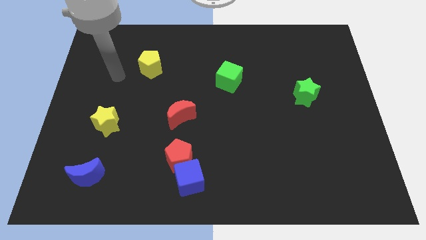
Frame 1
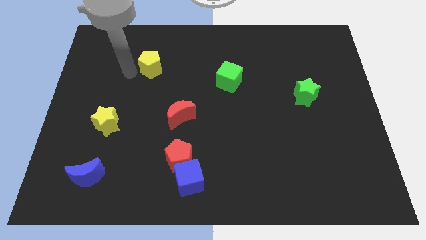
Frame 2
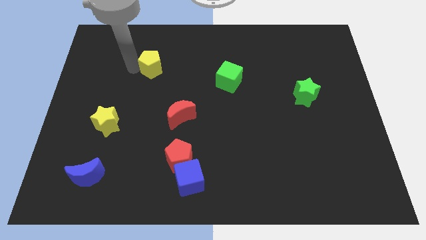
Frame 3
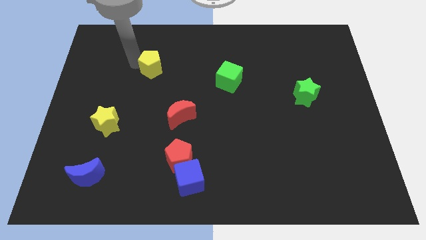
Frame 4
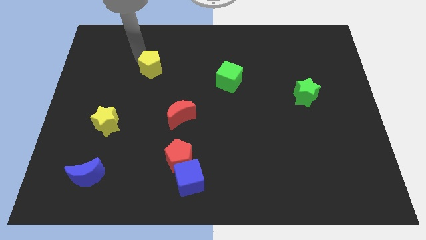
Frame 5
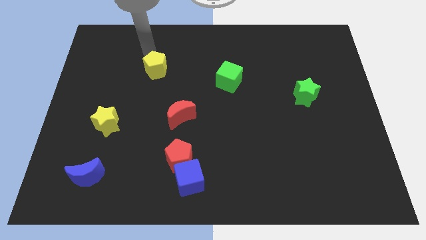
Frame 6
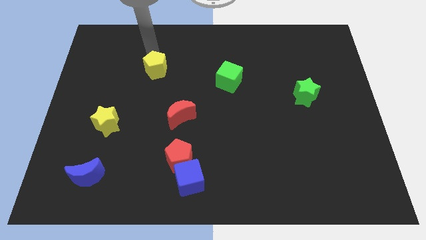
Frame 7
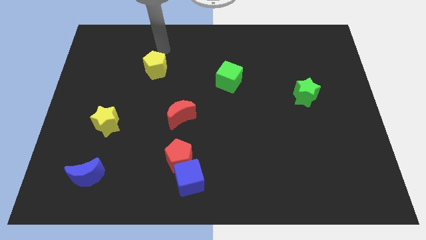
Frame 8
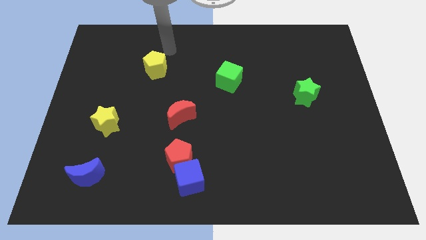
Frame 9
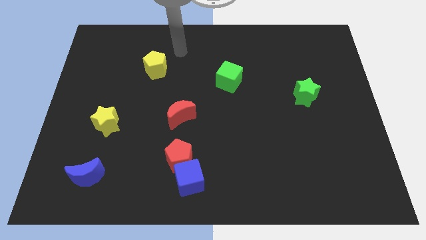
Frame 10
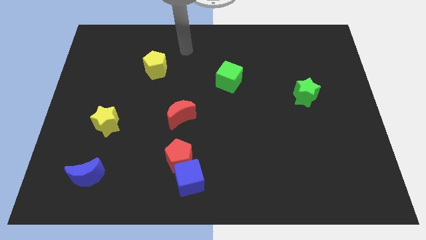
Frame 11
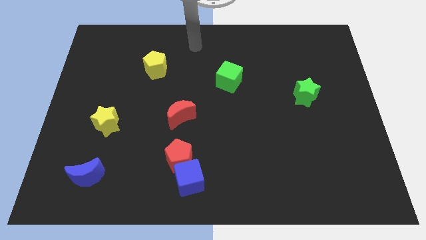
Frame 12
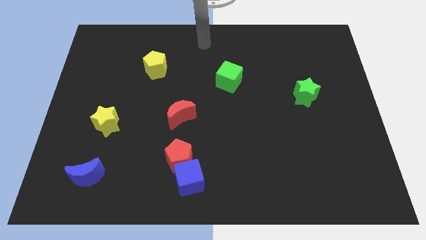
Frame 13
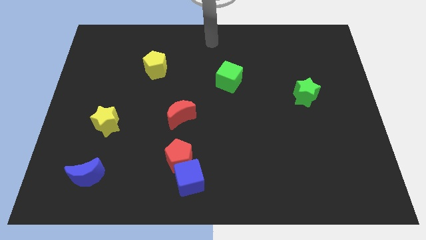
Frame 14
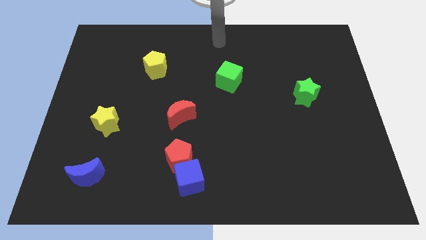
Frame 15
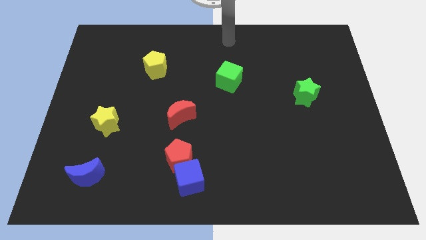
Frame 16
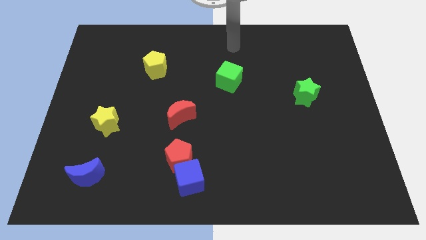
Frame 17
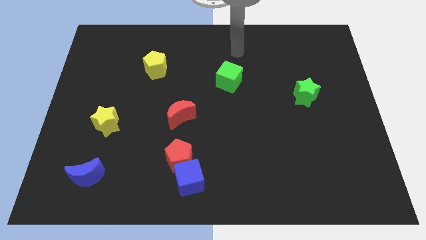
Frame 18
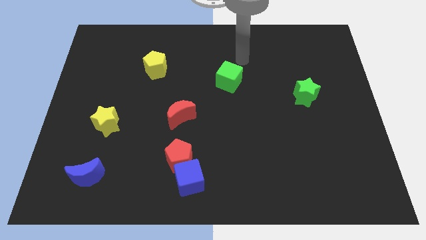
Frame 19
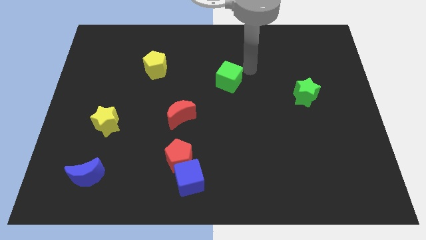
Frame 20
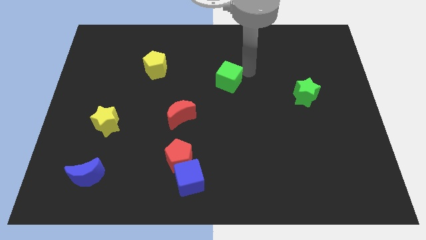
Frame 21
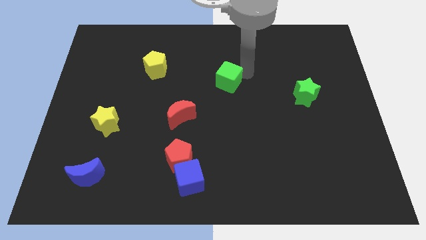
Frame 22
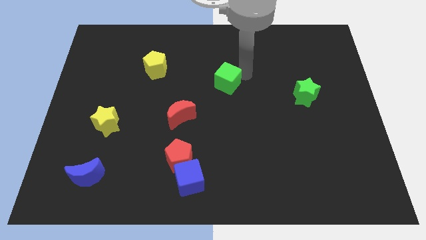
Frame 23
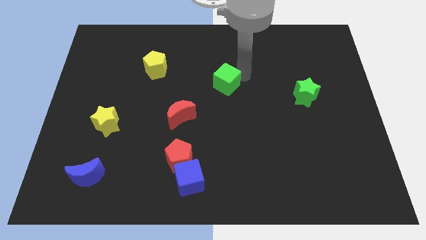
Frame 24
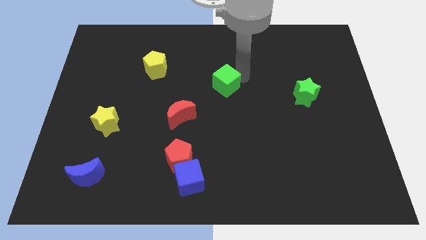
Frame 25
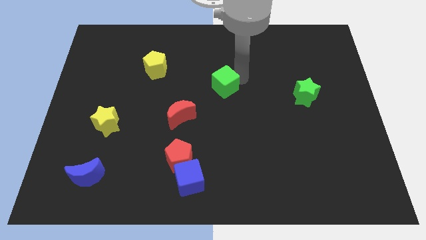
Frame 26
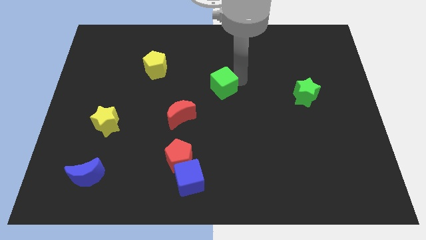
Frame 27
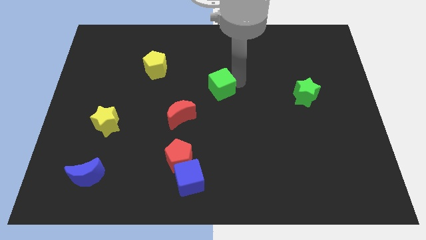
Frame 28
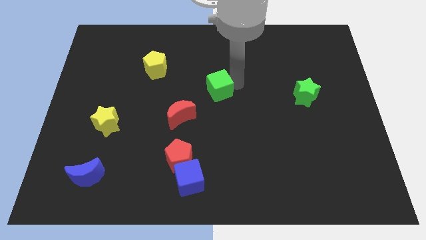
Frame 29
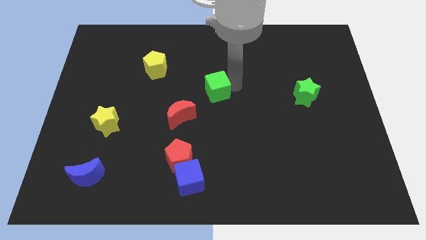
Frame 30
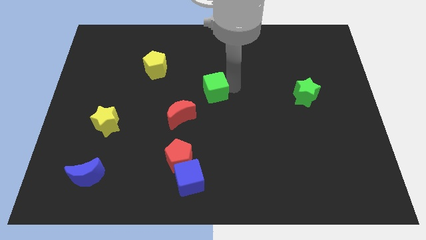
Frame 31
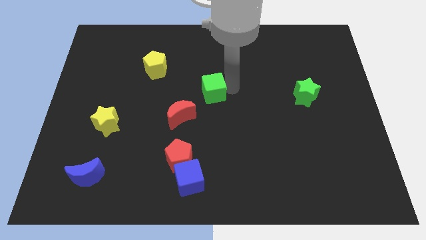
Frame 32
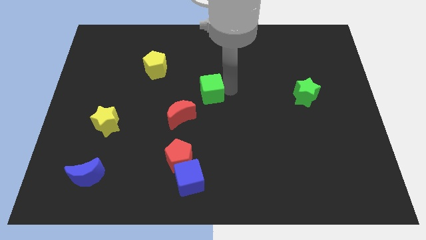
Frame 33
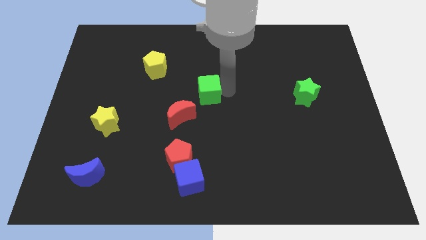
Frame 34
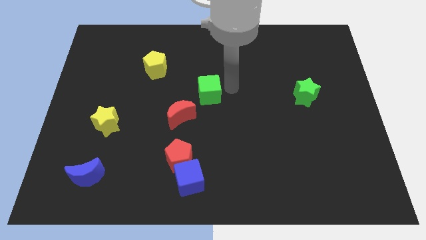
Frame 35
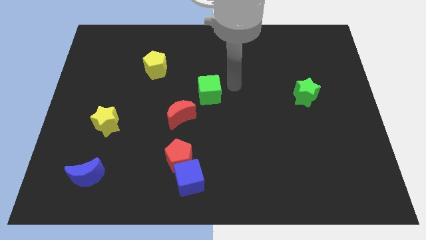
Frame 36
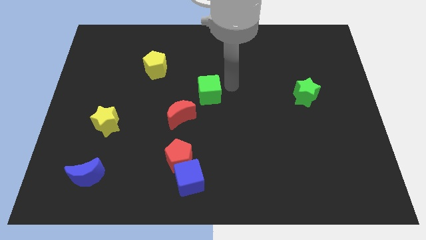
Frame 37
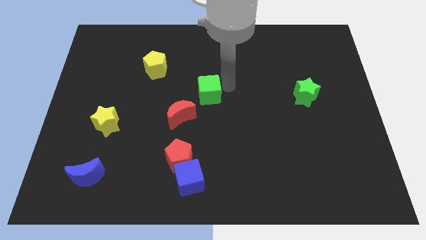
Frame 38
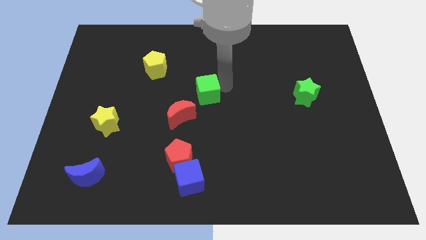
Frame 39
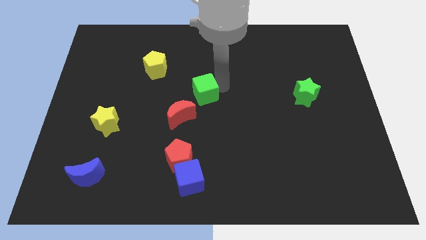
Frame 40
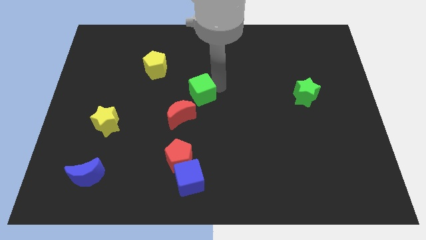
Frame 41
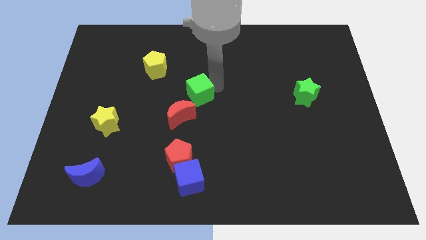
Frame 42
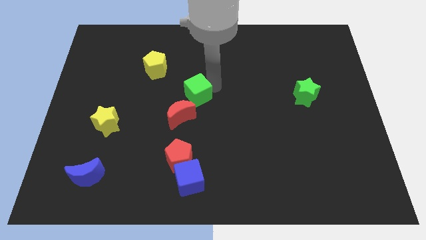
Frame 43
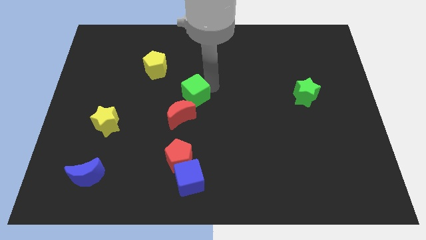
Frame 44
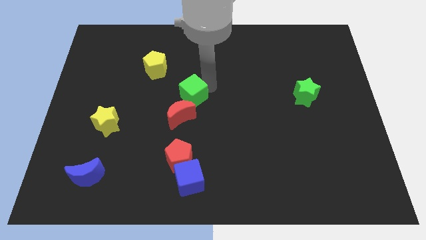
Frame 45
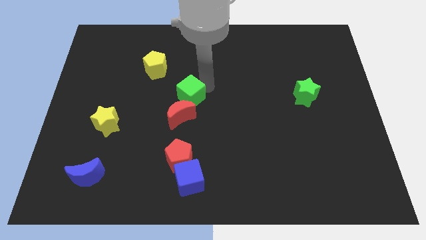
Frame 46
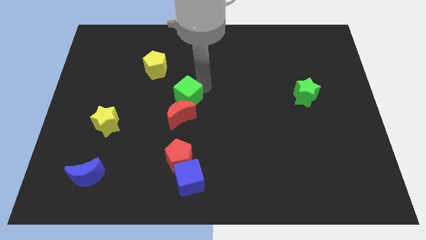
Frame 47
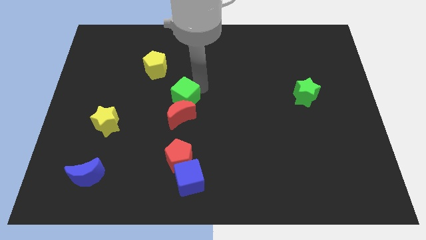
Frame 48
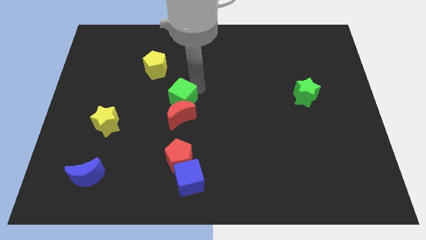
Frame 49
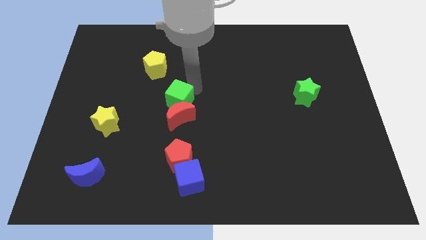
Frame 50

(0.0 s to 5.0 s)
slide the green cube to the top of the red pentagon

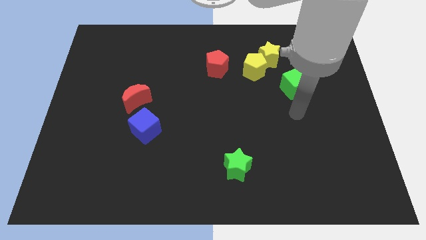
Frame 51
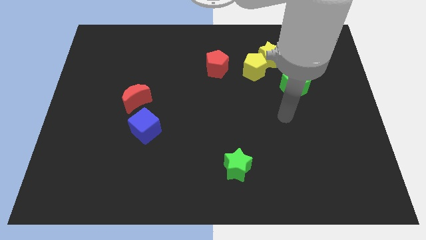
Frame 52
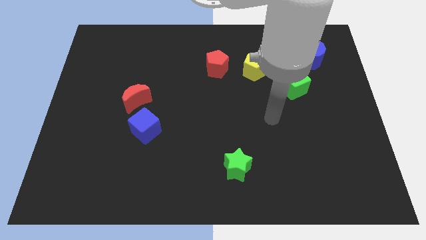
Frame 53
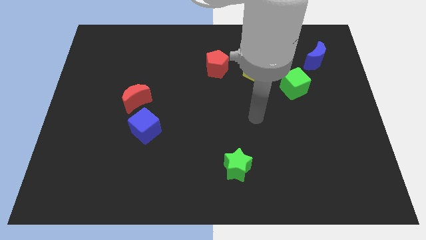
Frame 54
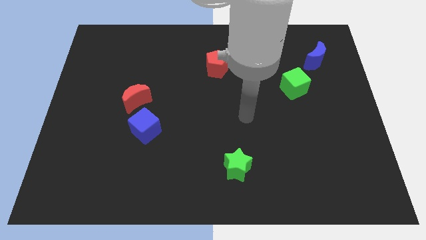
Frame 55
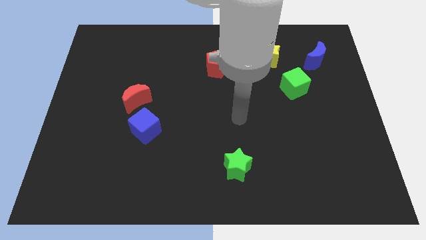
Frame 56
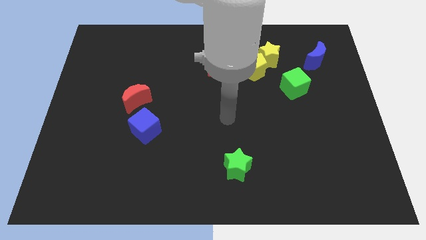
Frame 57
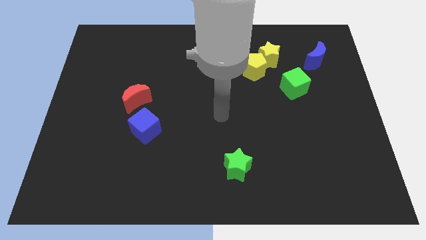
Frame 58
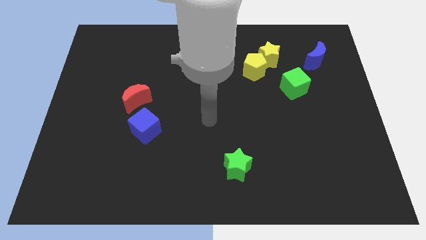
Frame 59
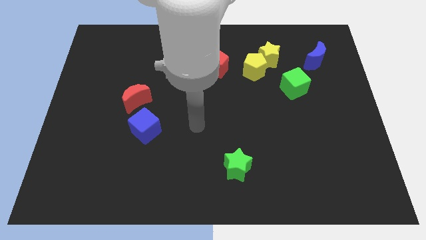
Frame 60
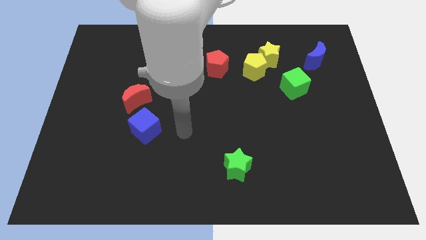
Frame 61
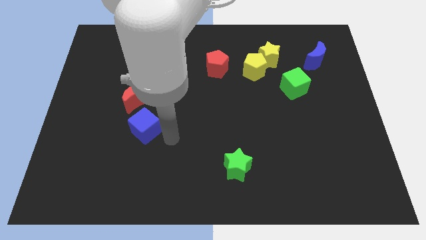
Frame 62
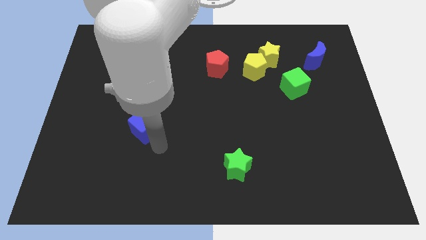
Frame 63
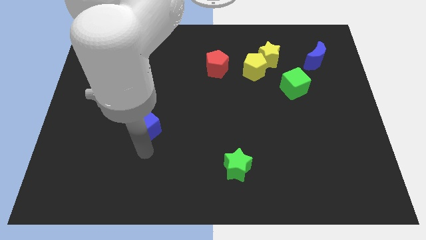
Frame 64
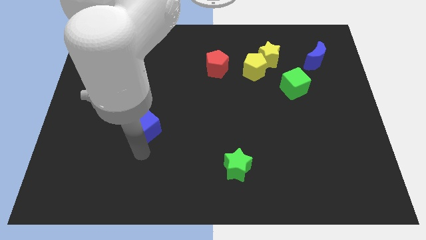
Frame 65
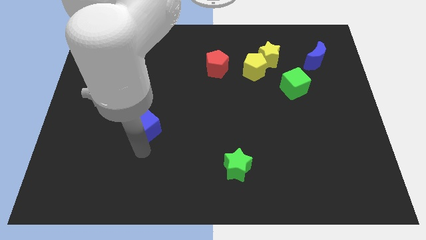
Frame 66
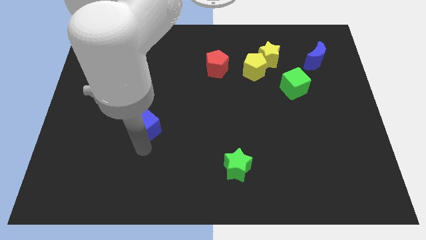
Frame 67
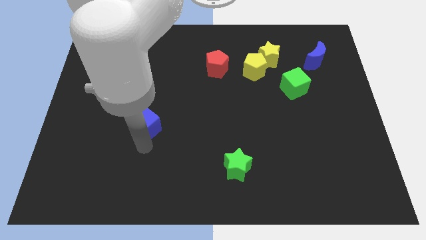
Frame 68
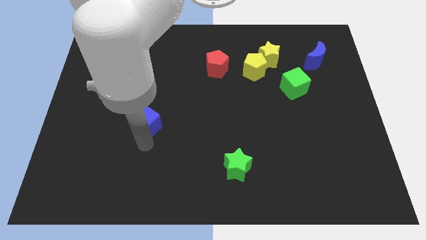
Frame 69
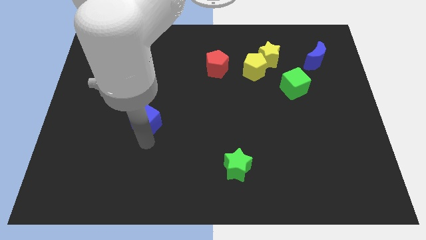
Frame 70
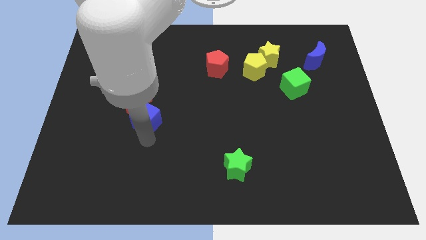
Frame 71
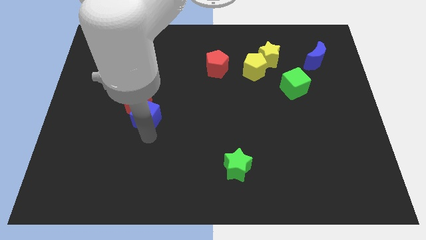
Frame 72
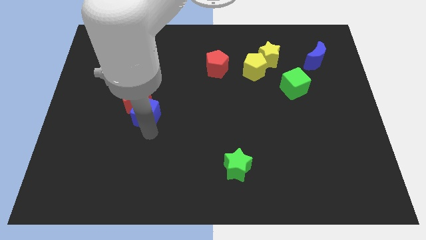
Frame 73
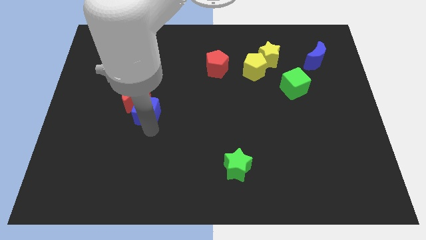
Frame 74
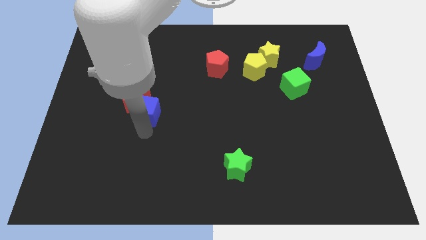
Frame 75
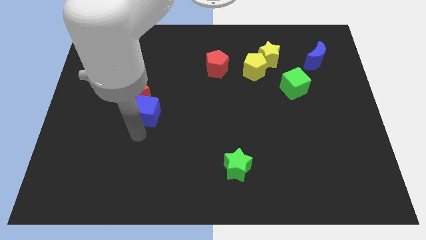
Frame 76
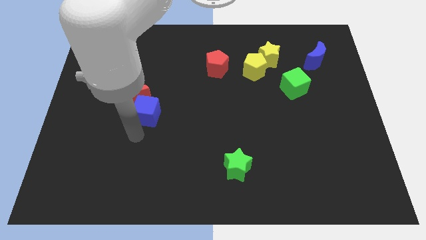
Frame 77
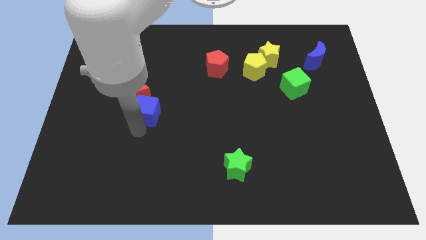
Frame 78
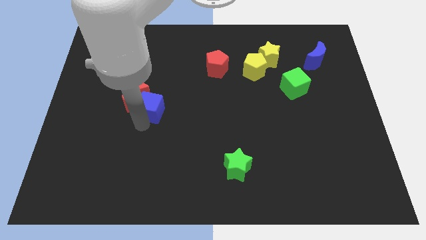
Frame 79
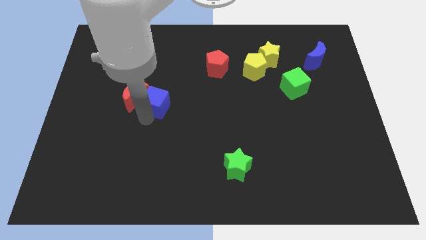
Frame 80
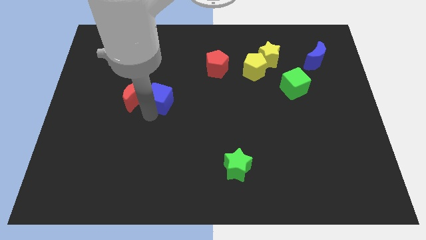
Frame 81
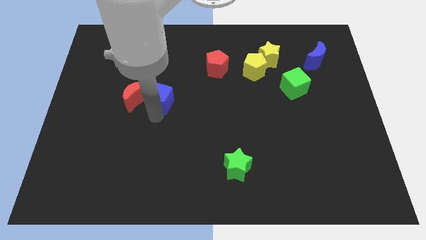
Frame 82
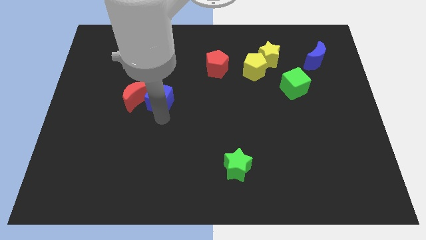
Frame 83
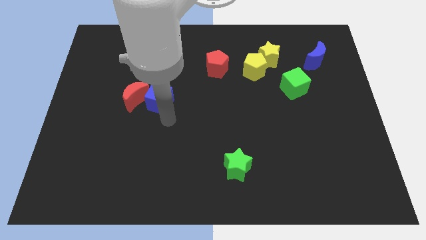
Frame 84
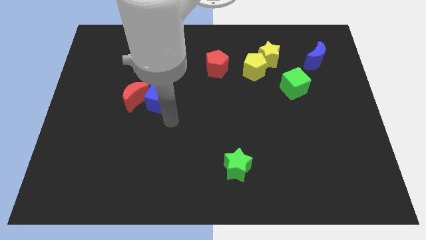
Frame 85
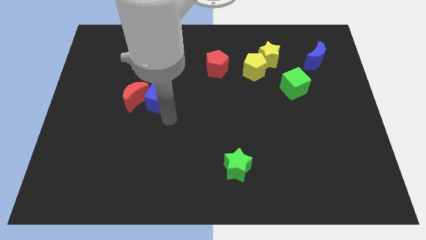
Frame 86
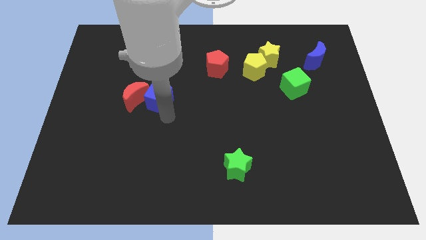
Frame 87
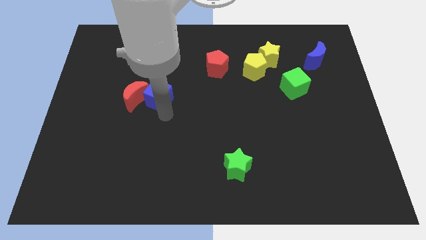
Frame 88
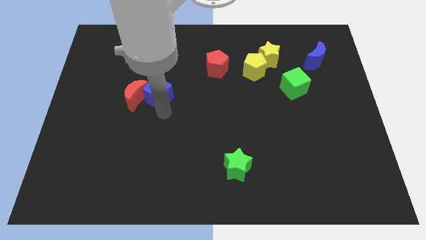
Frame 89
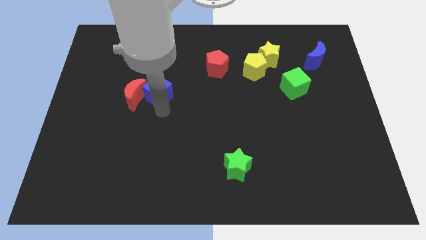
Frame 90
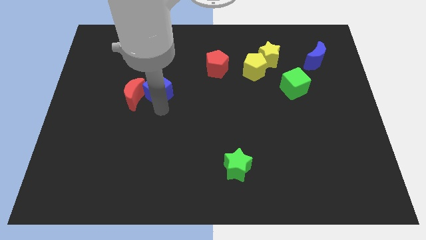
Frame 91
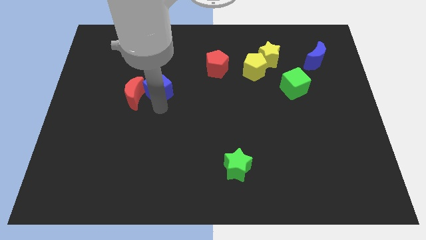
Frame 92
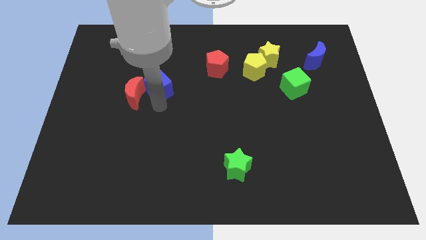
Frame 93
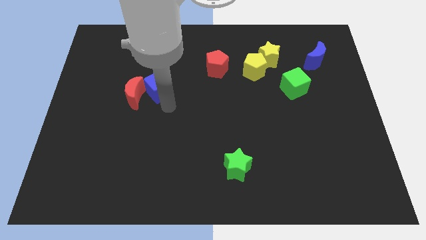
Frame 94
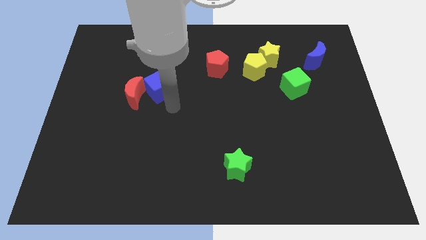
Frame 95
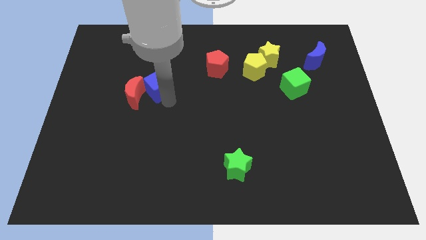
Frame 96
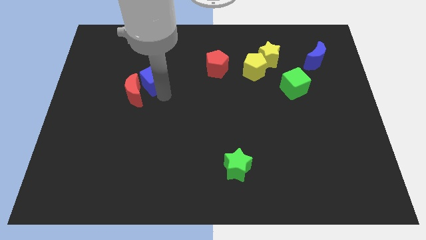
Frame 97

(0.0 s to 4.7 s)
put the blue cube above the red moon
